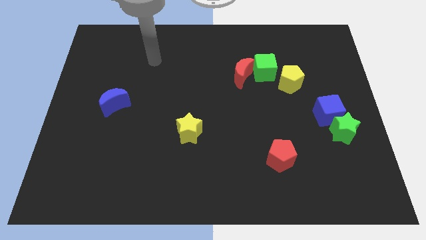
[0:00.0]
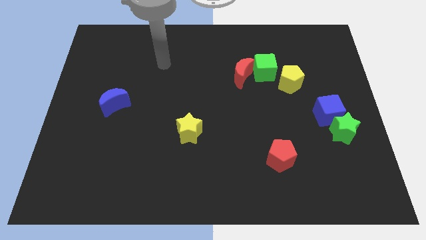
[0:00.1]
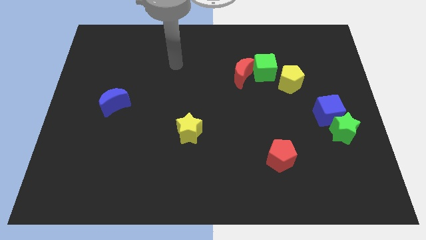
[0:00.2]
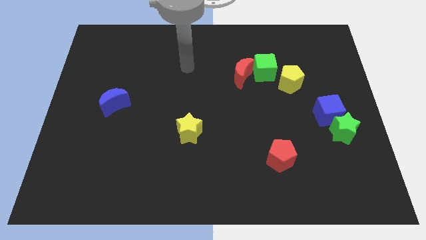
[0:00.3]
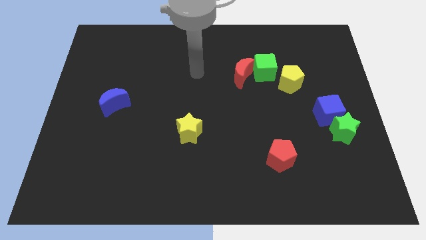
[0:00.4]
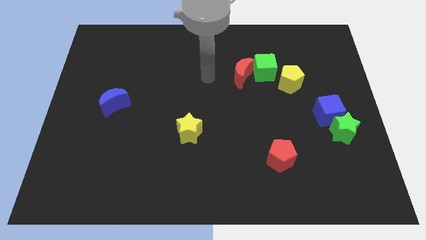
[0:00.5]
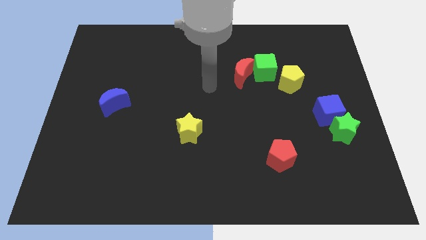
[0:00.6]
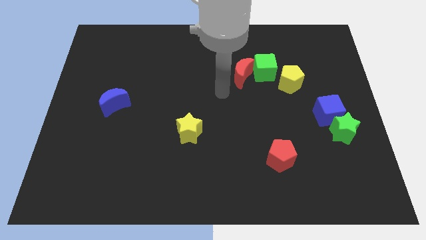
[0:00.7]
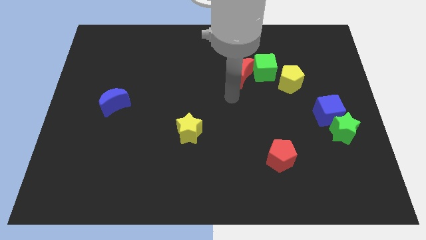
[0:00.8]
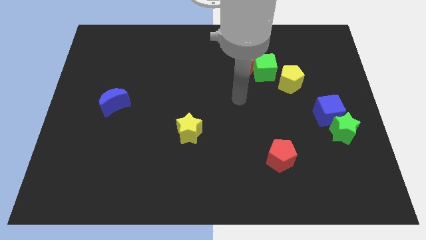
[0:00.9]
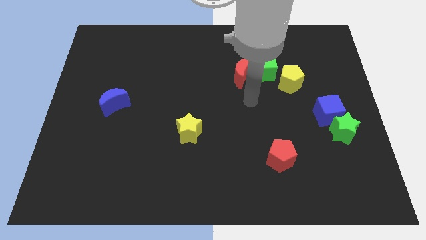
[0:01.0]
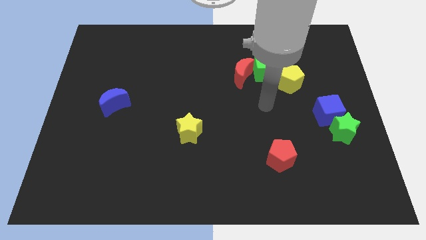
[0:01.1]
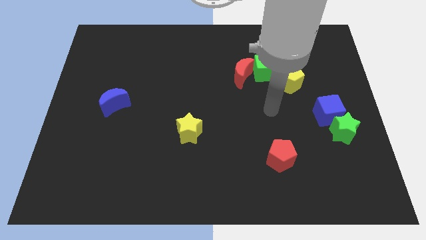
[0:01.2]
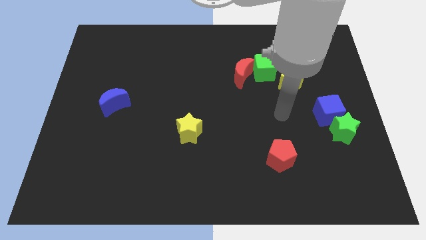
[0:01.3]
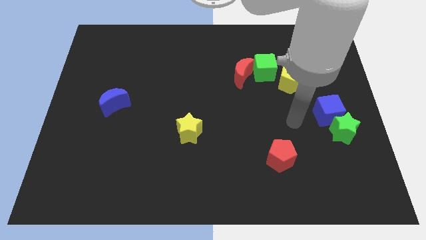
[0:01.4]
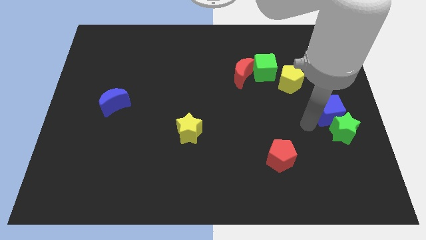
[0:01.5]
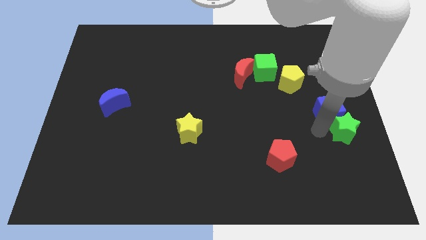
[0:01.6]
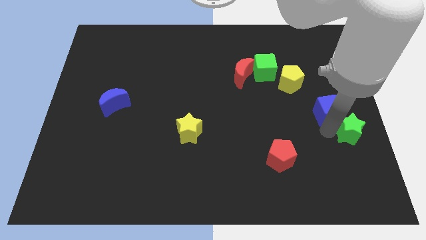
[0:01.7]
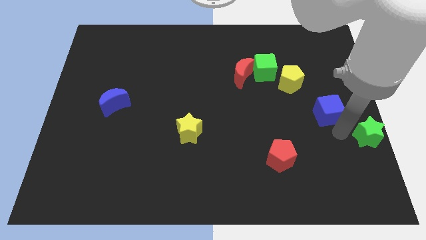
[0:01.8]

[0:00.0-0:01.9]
pull the blue cube apart from the green star

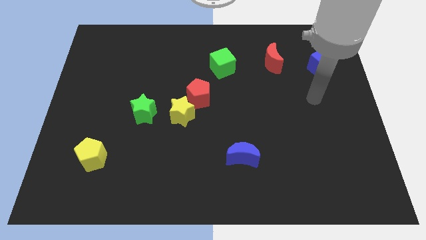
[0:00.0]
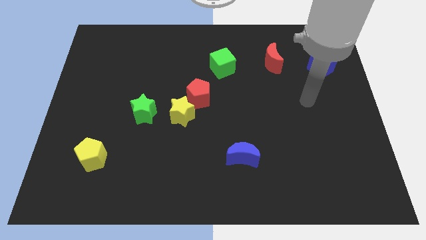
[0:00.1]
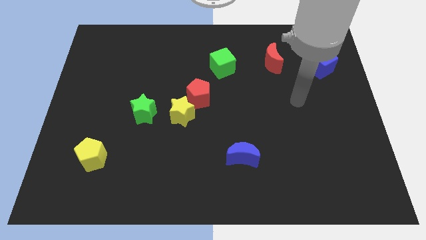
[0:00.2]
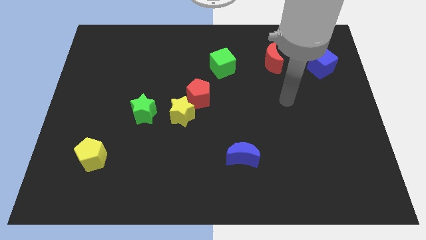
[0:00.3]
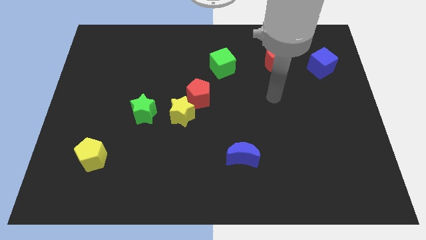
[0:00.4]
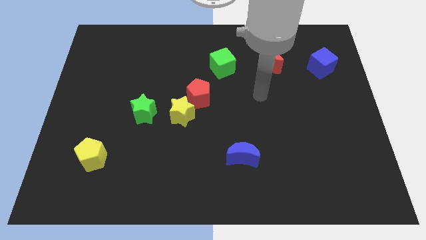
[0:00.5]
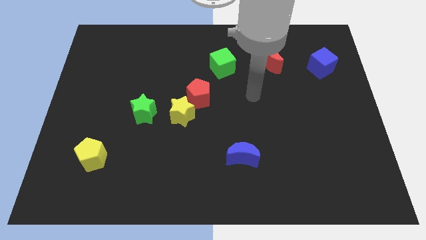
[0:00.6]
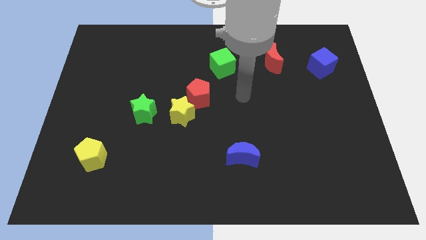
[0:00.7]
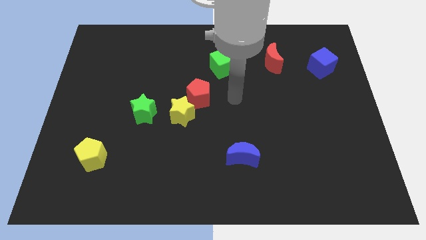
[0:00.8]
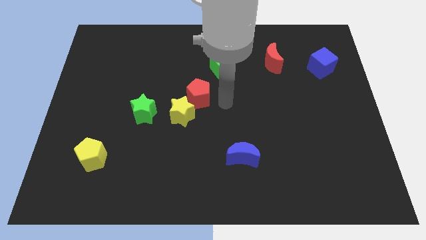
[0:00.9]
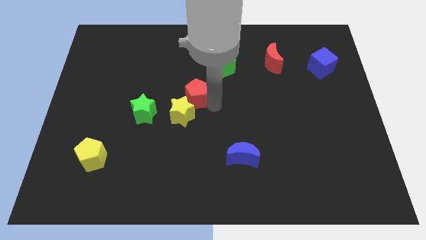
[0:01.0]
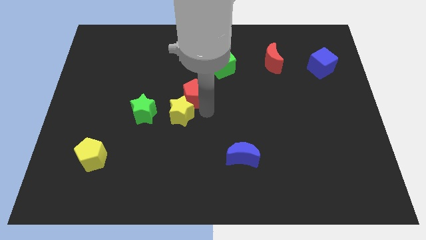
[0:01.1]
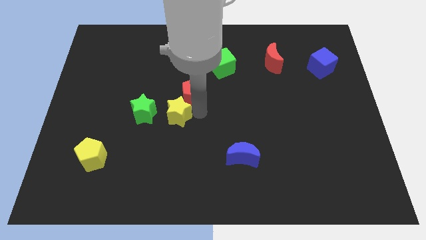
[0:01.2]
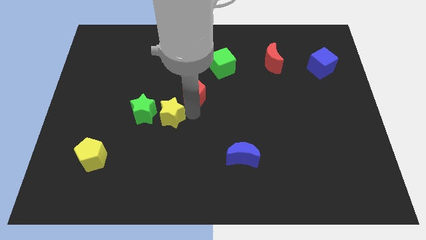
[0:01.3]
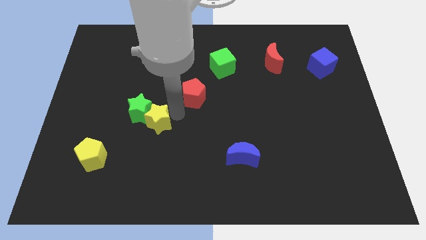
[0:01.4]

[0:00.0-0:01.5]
pull the red pentagon apart from the yellow star

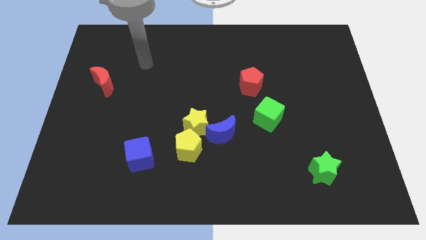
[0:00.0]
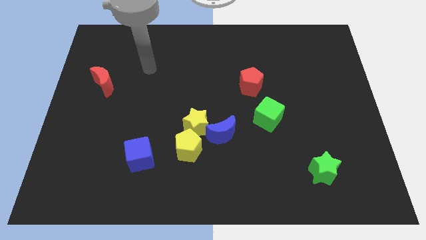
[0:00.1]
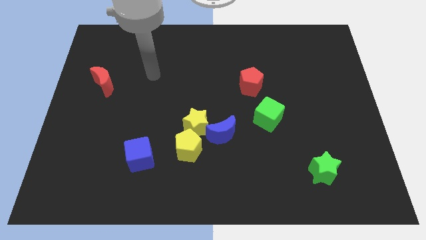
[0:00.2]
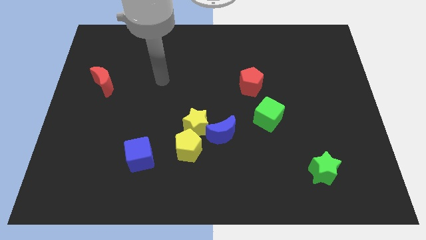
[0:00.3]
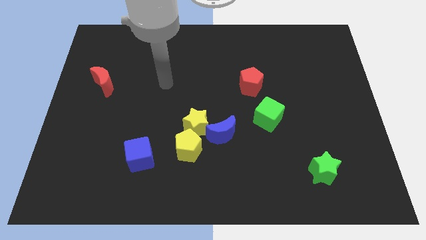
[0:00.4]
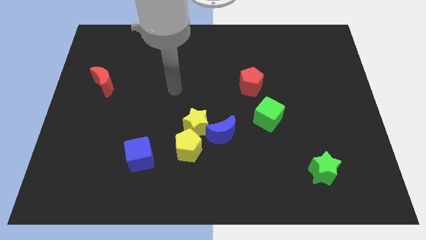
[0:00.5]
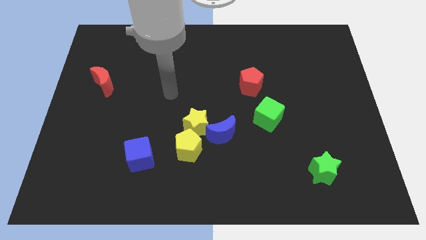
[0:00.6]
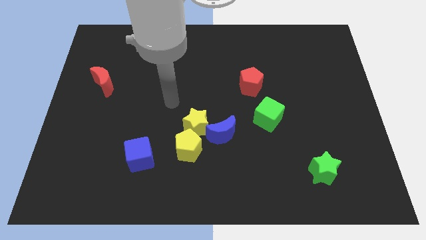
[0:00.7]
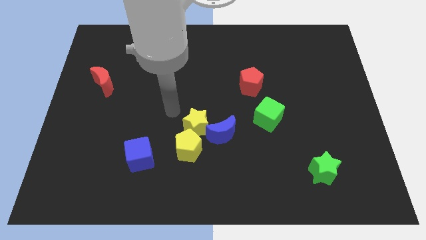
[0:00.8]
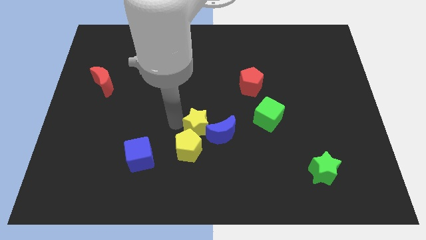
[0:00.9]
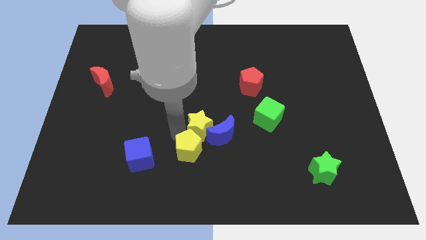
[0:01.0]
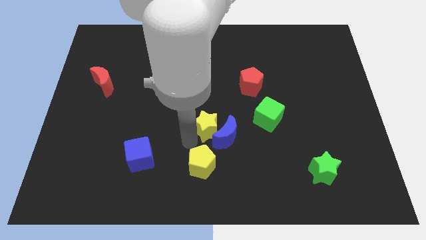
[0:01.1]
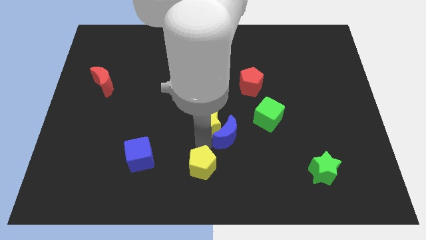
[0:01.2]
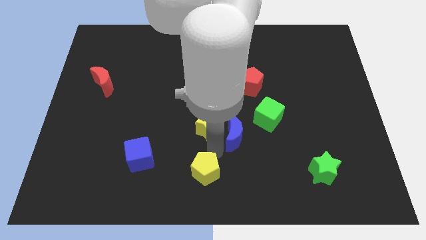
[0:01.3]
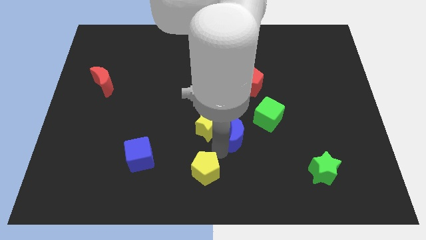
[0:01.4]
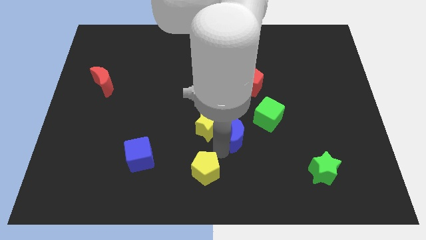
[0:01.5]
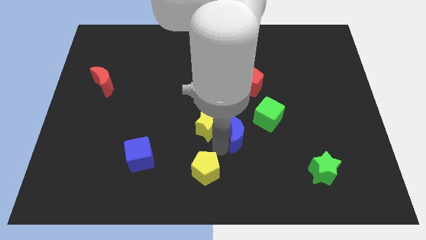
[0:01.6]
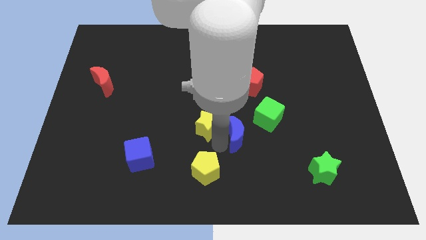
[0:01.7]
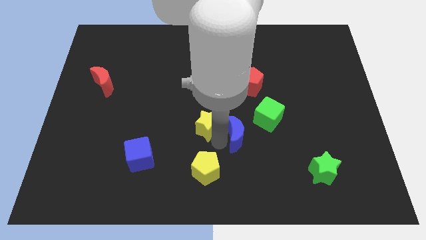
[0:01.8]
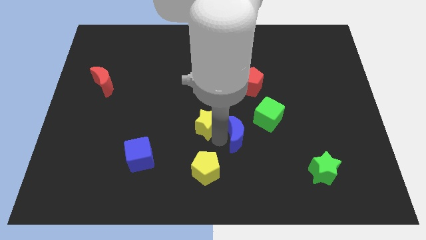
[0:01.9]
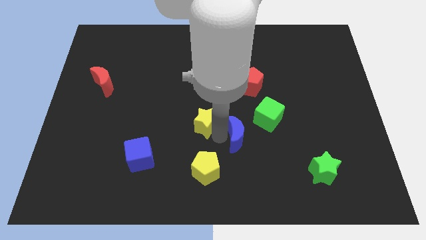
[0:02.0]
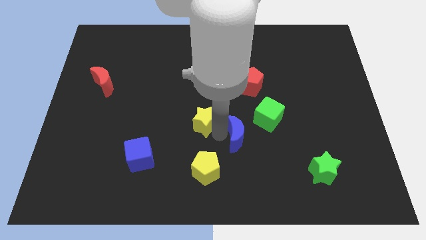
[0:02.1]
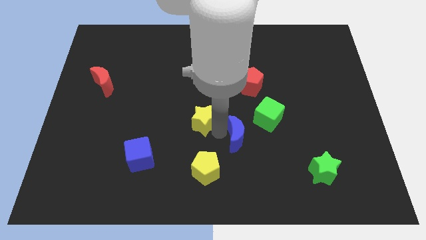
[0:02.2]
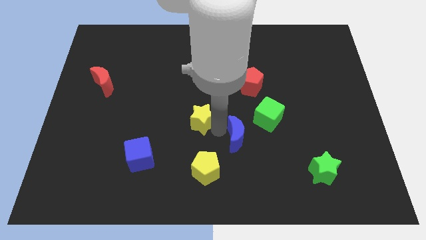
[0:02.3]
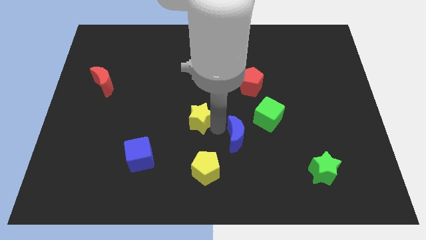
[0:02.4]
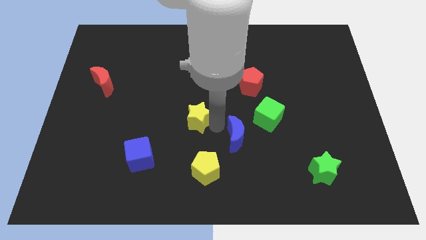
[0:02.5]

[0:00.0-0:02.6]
pull the yellow star apart from the yellow pentagon and blue moon

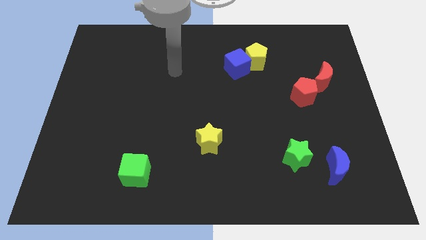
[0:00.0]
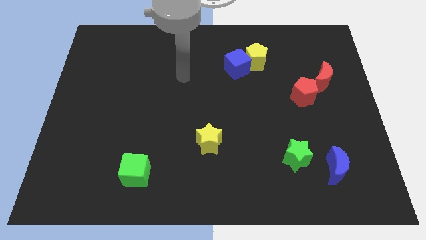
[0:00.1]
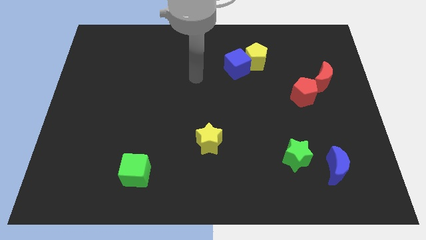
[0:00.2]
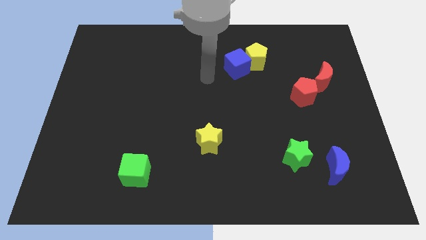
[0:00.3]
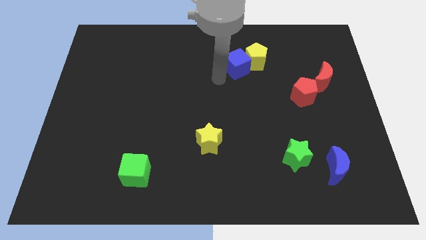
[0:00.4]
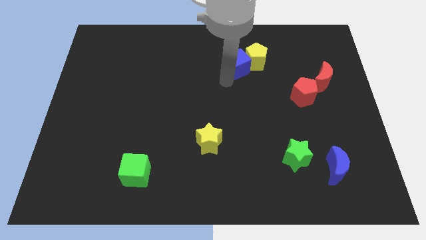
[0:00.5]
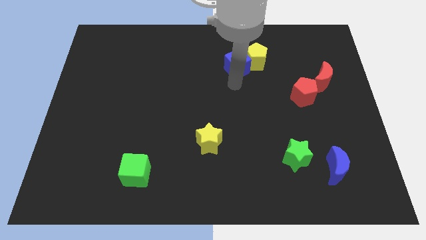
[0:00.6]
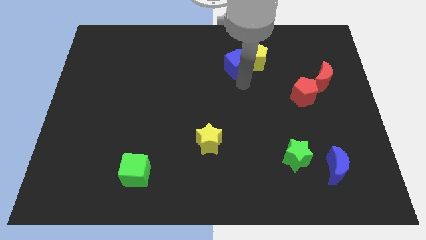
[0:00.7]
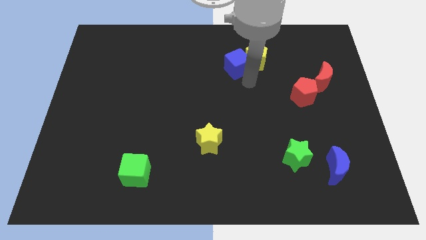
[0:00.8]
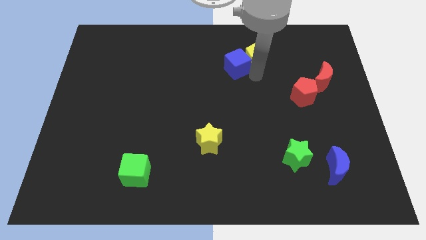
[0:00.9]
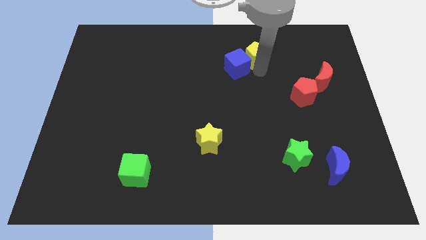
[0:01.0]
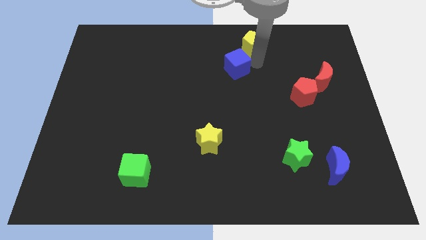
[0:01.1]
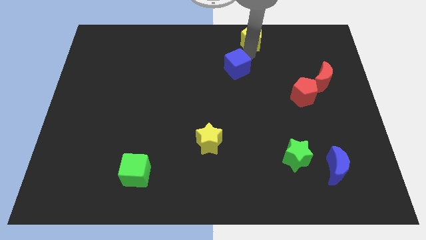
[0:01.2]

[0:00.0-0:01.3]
pull the blue cube apart from the yellow pentagon

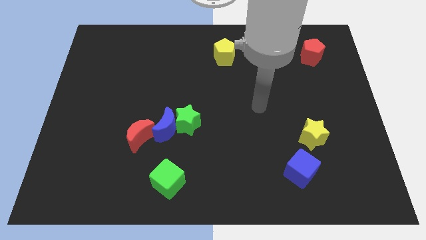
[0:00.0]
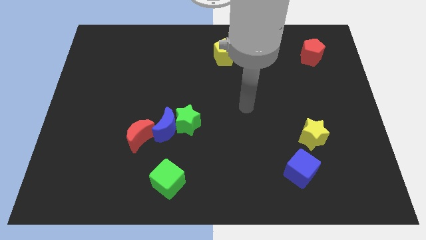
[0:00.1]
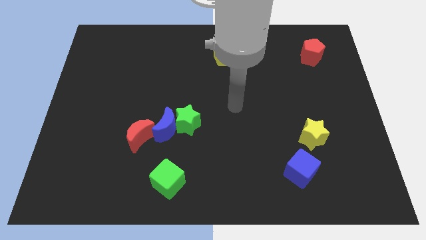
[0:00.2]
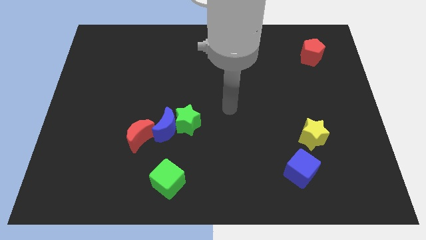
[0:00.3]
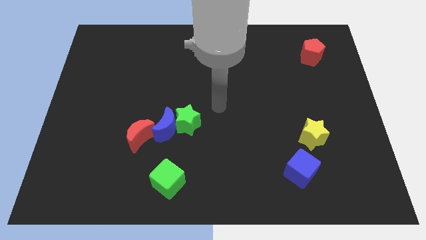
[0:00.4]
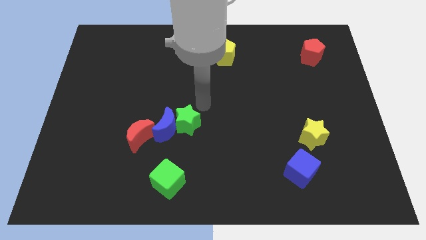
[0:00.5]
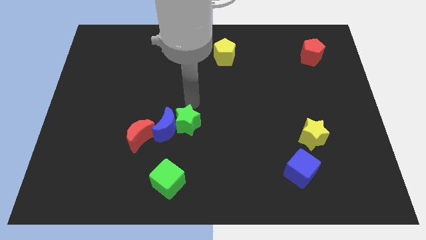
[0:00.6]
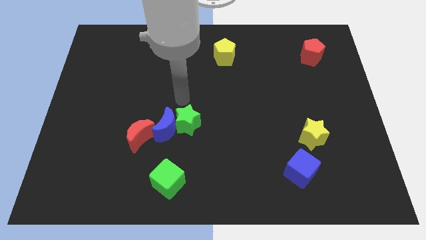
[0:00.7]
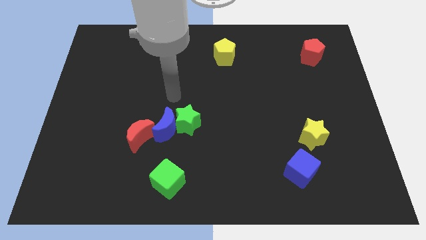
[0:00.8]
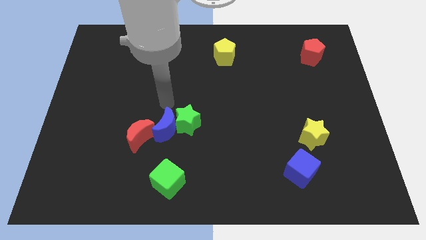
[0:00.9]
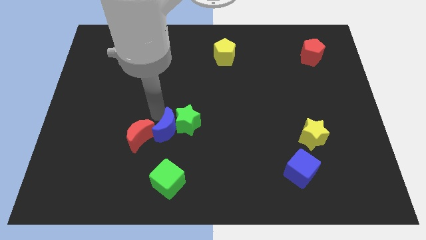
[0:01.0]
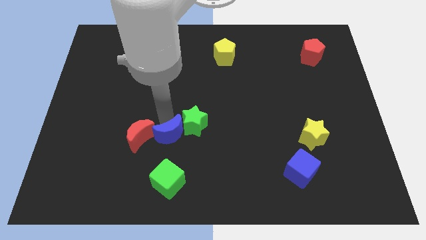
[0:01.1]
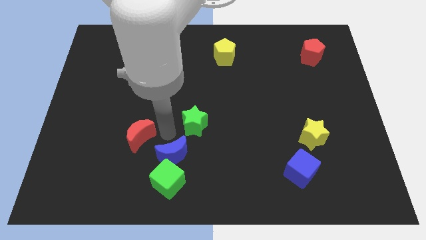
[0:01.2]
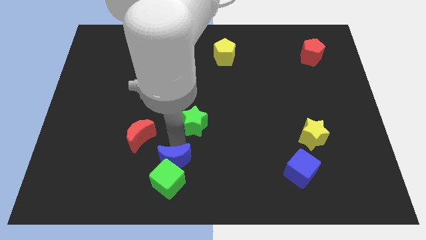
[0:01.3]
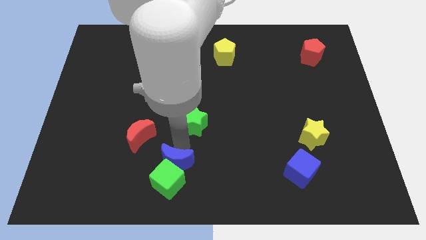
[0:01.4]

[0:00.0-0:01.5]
separate the green star from the blue moon

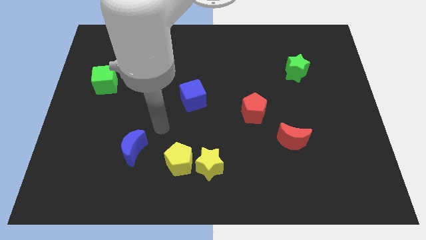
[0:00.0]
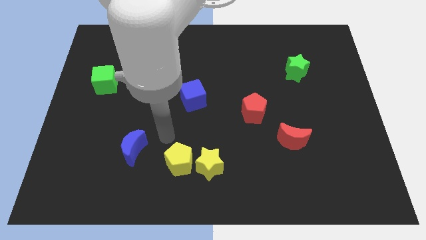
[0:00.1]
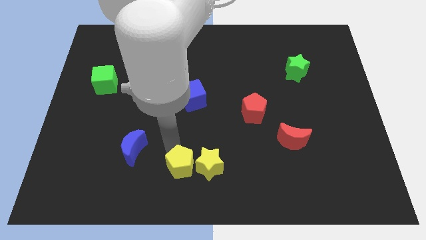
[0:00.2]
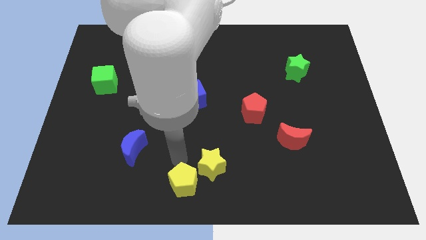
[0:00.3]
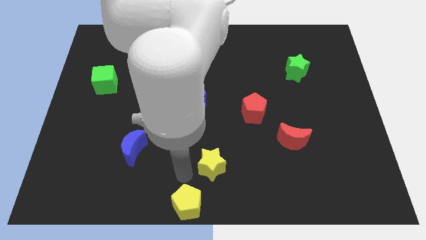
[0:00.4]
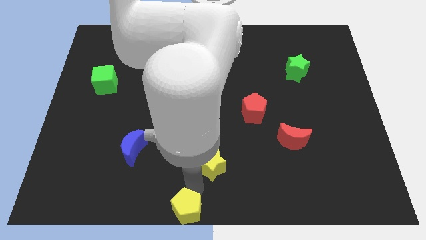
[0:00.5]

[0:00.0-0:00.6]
pull the yellow star apart from the yellow pentagon
